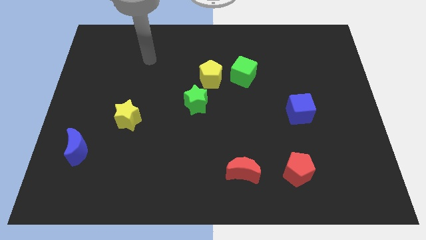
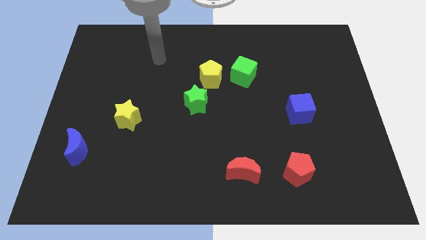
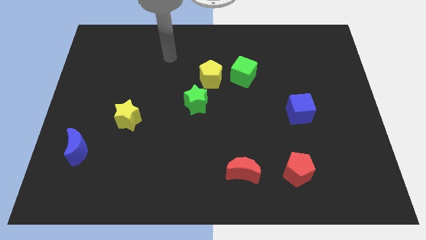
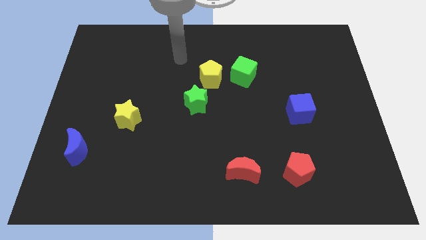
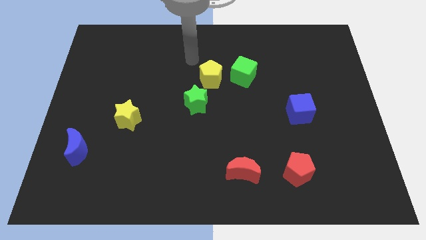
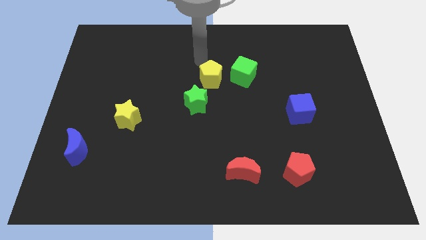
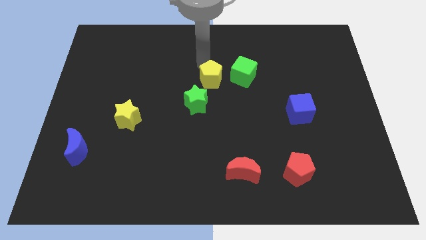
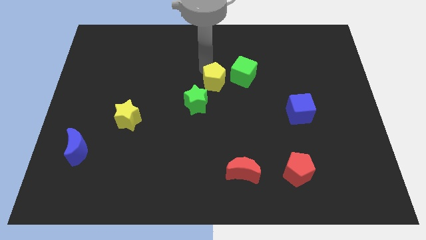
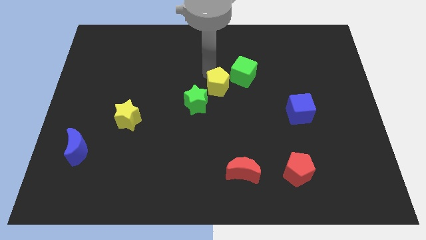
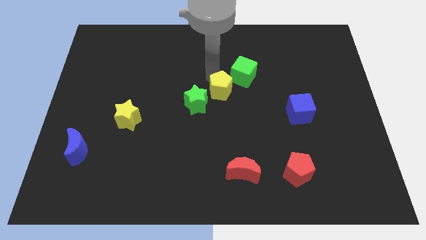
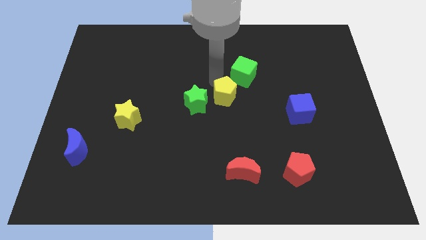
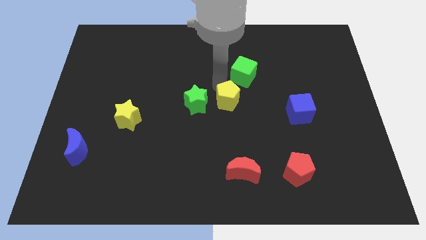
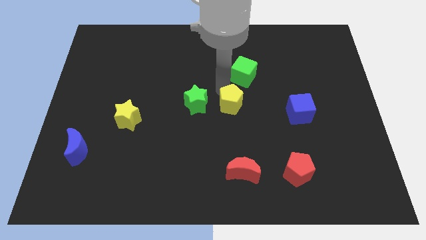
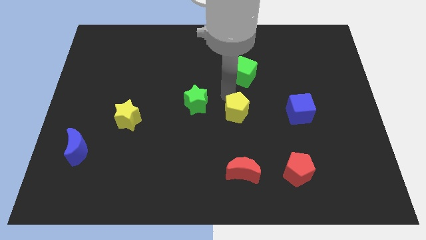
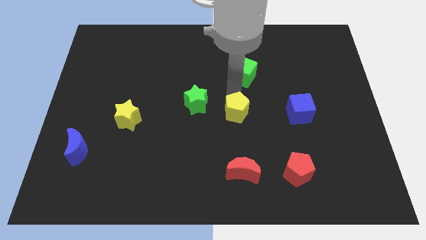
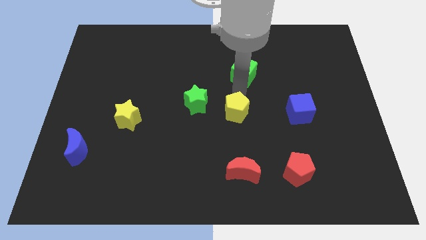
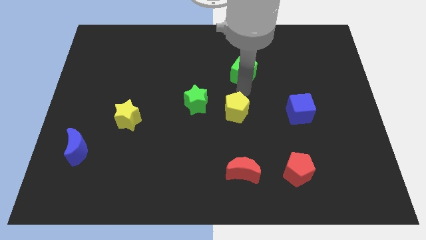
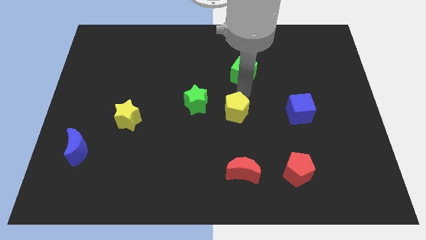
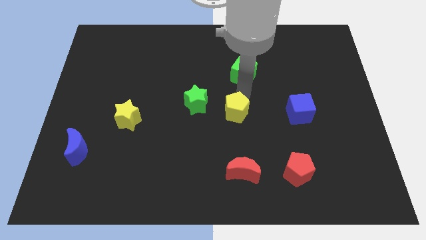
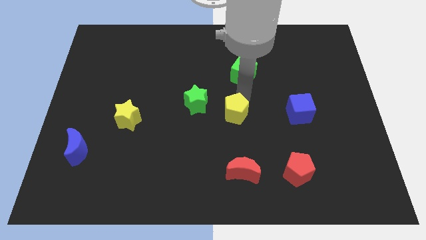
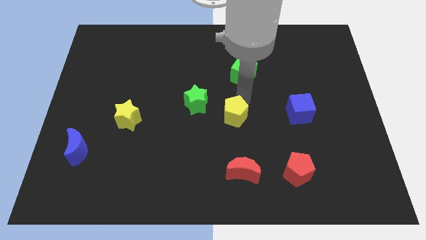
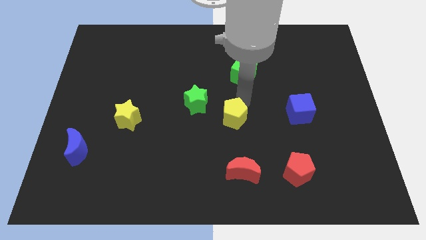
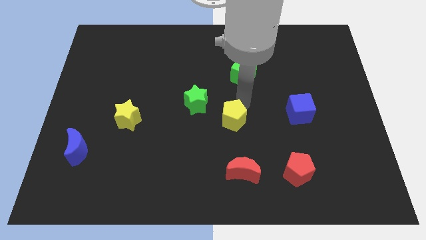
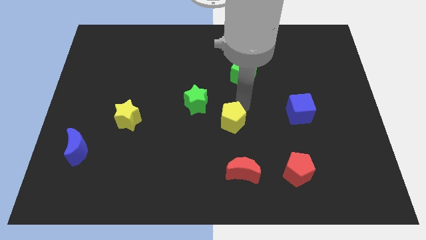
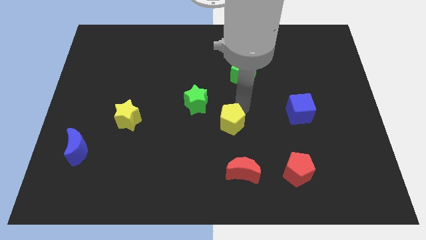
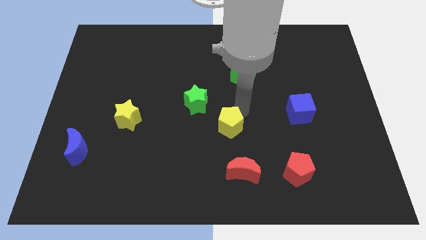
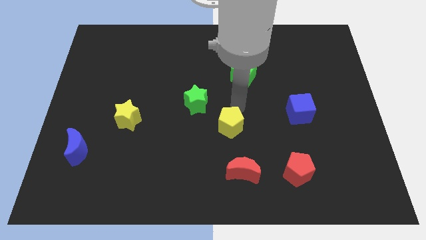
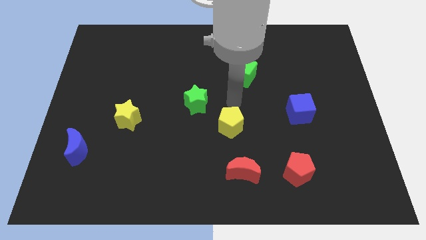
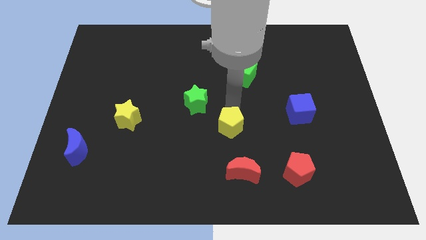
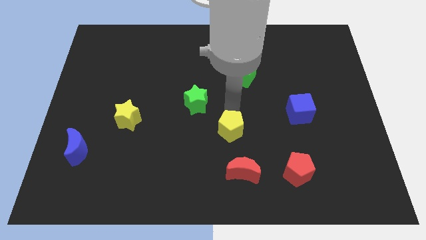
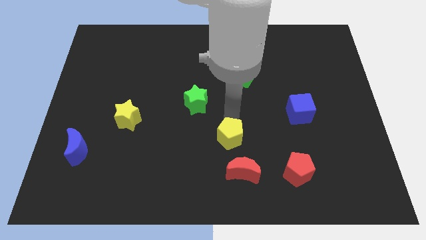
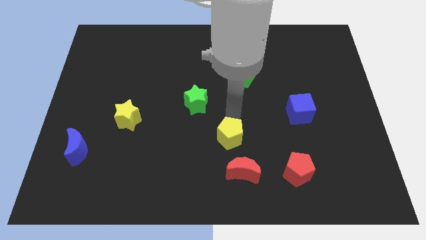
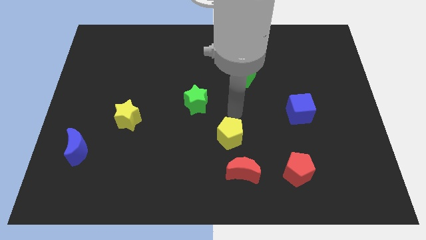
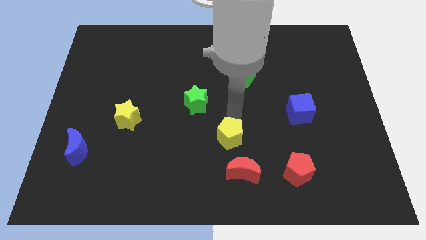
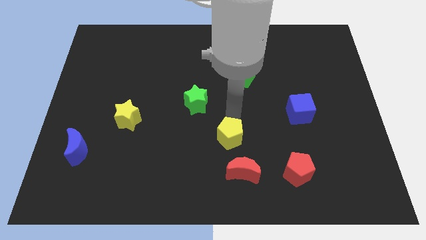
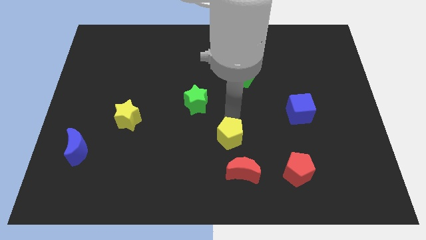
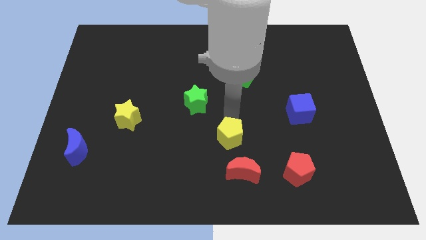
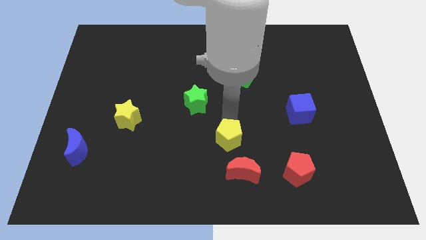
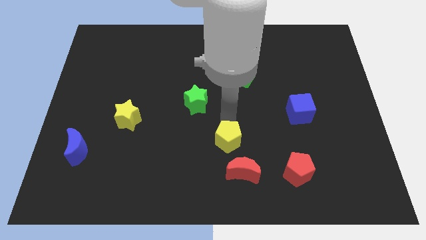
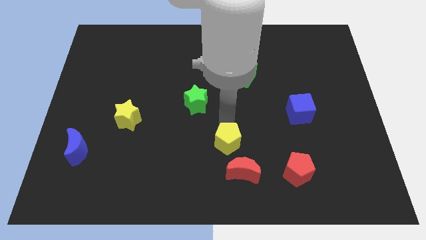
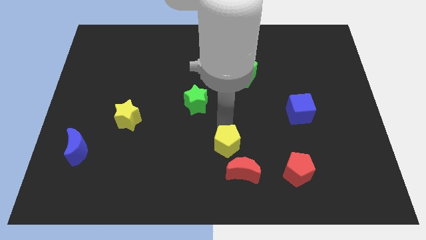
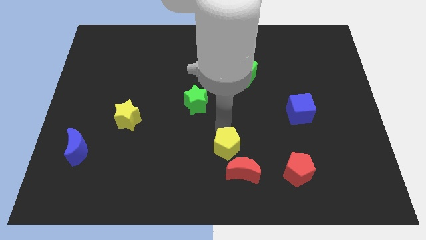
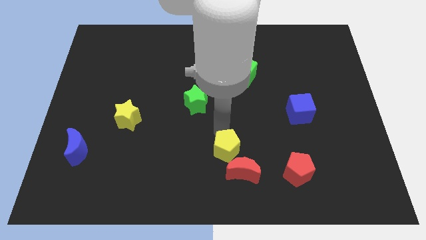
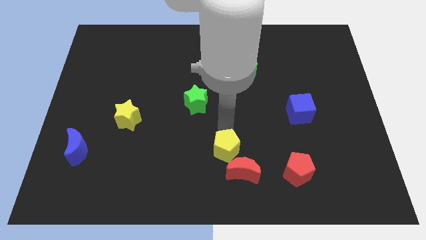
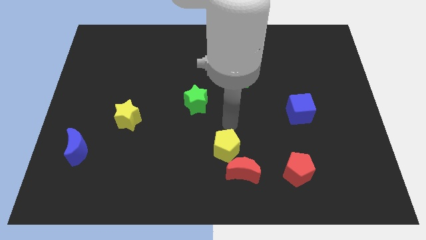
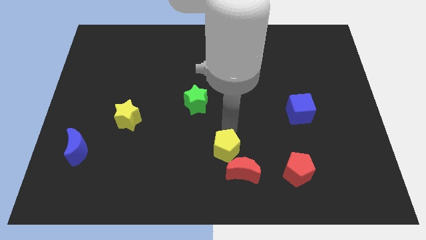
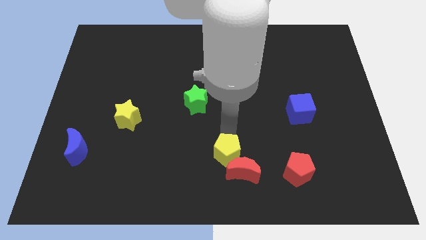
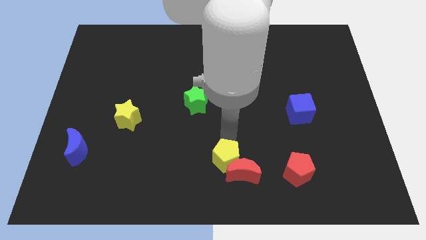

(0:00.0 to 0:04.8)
put the yellow pentagon to the bottom side

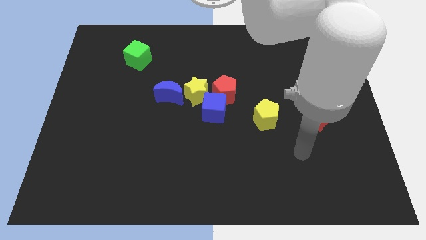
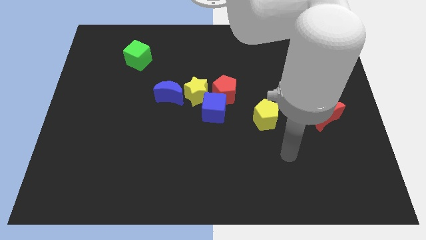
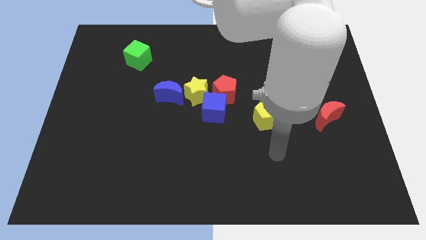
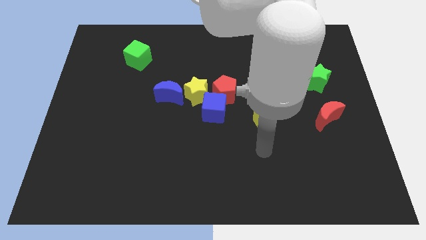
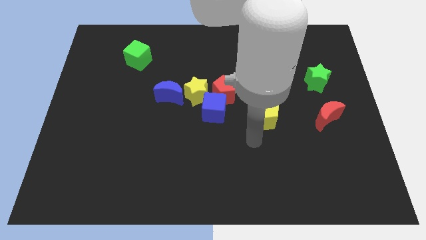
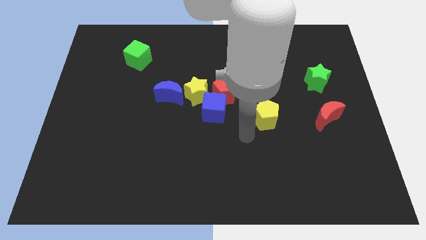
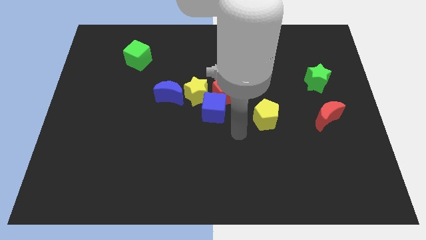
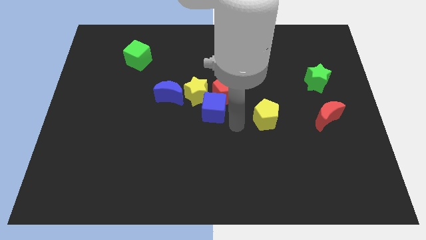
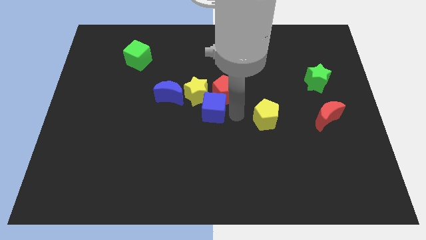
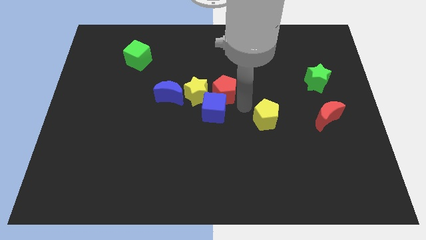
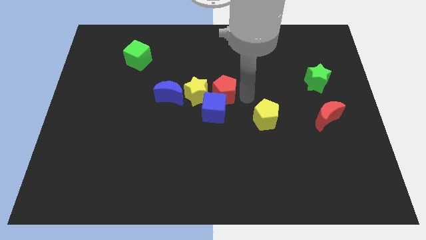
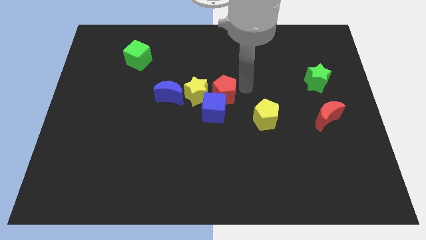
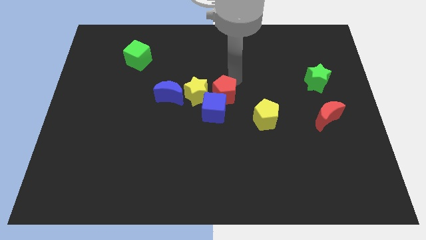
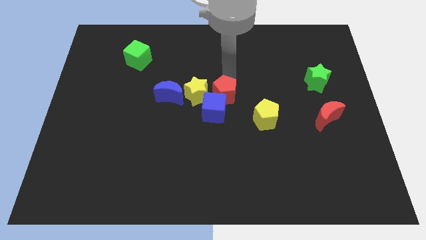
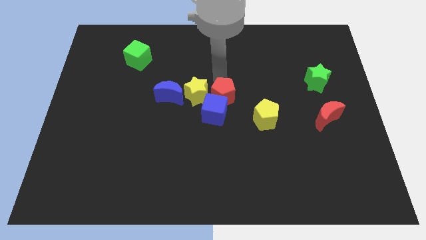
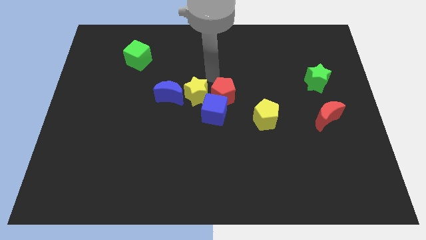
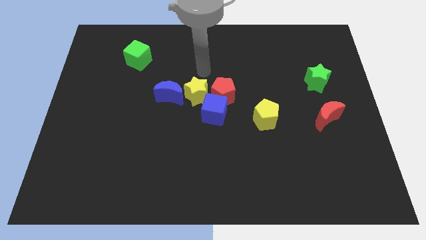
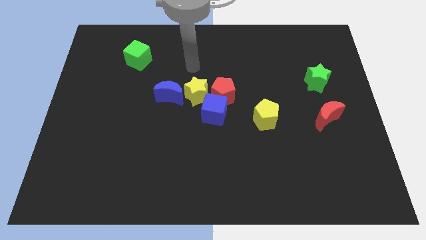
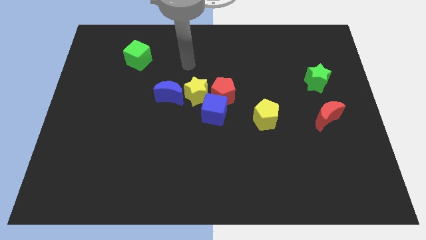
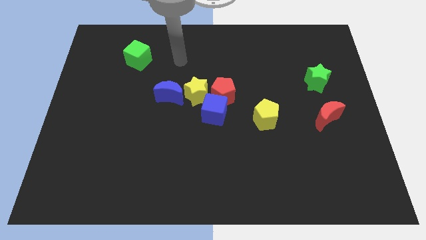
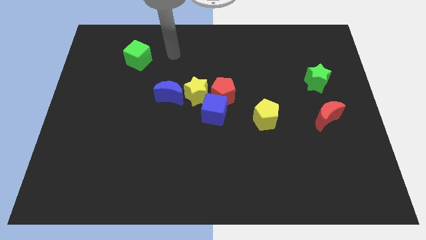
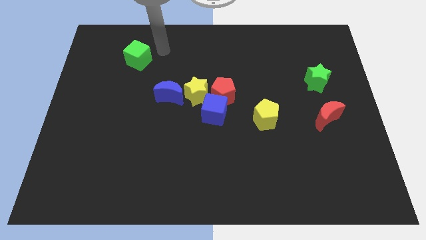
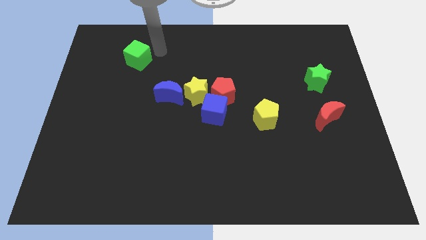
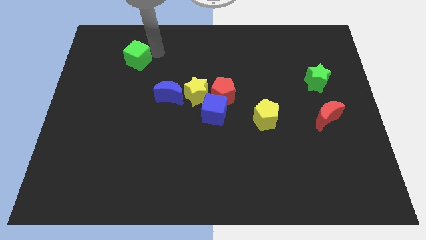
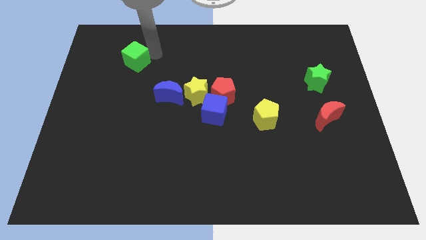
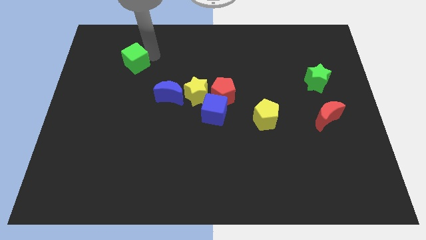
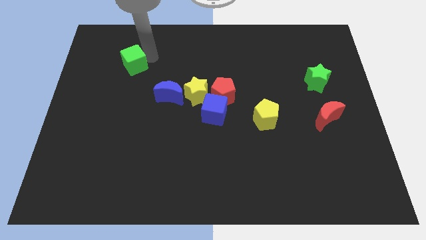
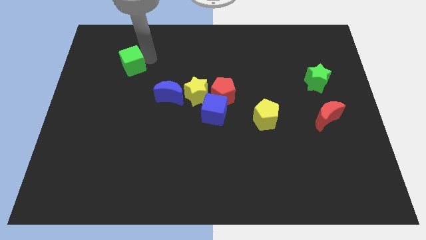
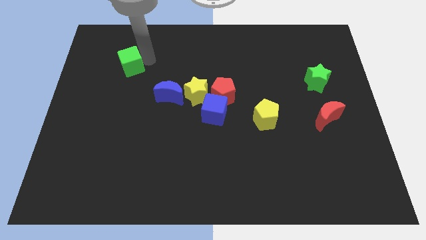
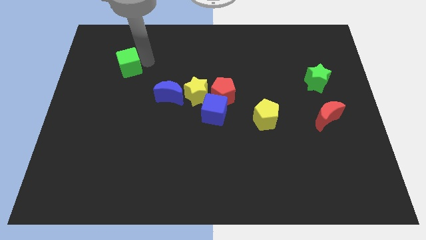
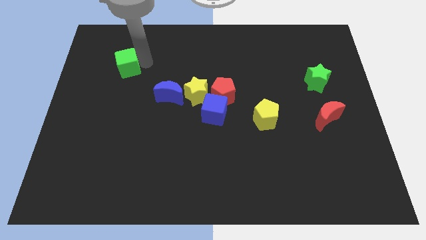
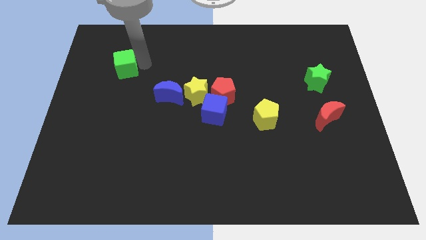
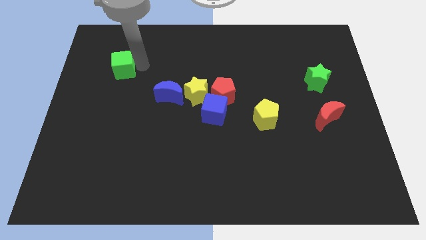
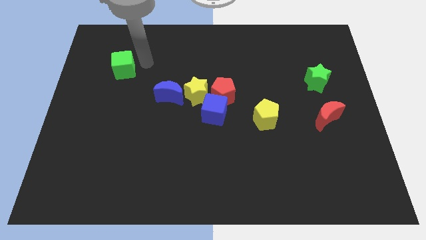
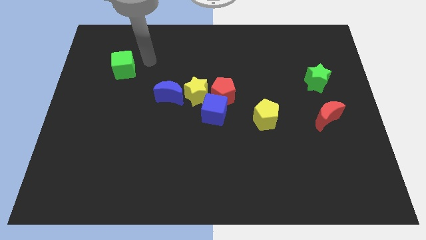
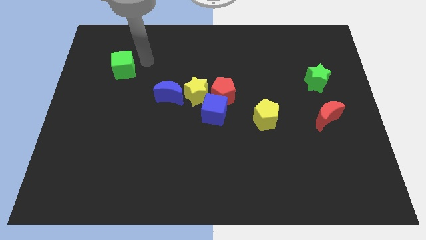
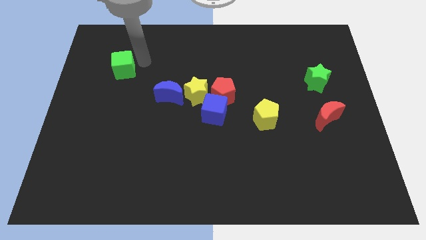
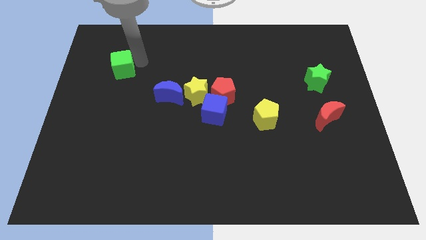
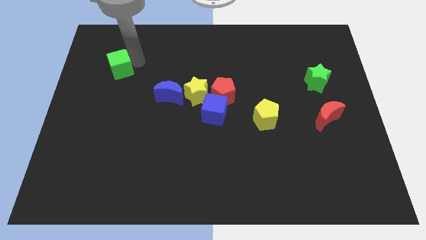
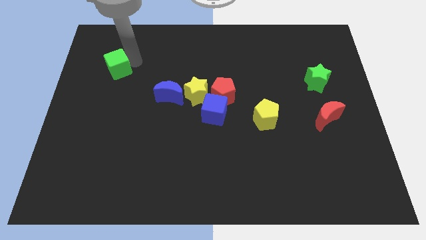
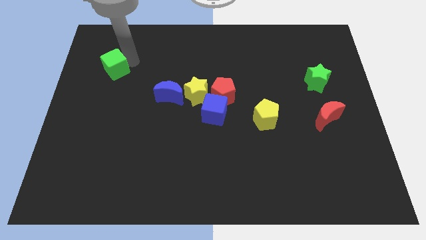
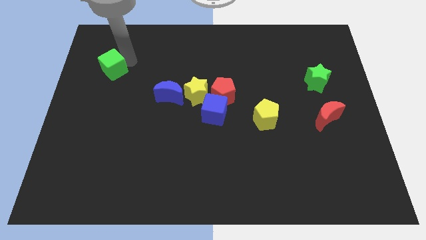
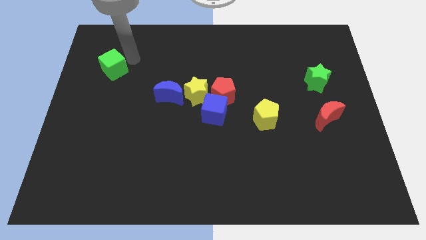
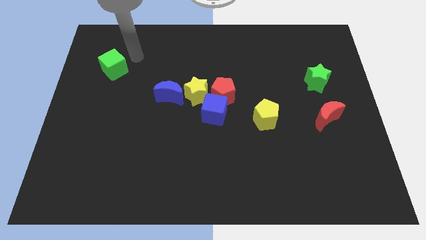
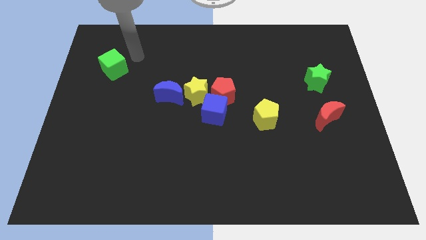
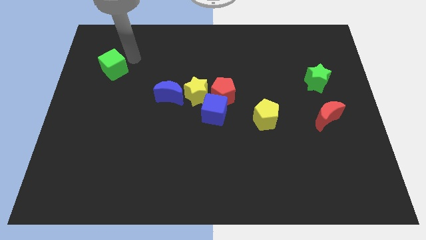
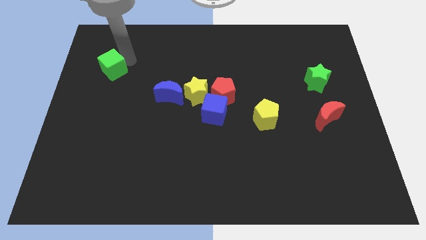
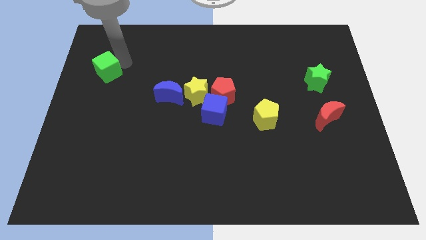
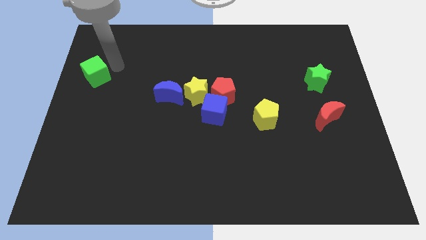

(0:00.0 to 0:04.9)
put the green cube to the left side
